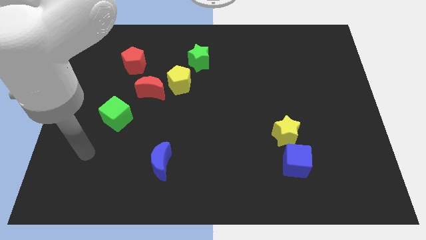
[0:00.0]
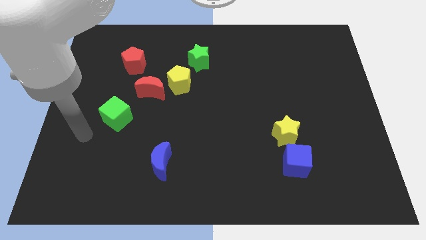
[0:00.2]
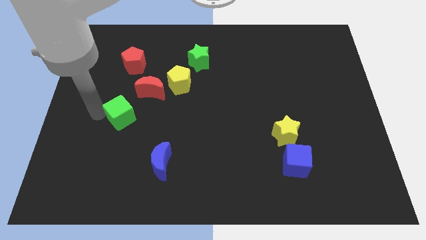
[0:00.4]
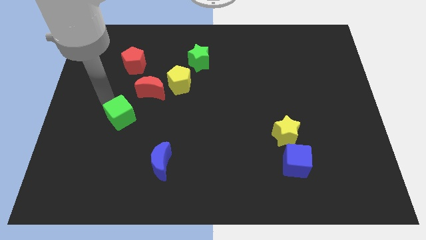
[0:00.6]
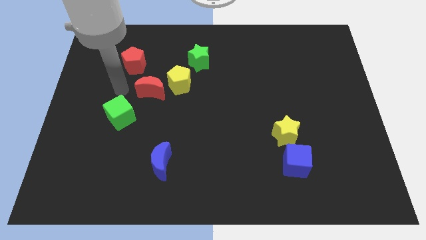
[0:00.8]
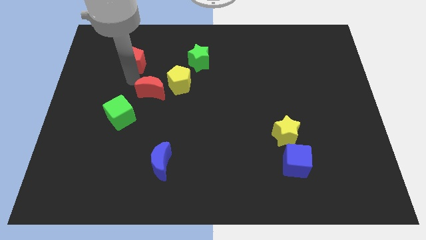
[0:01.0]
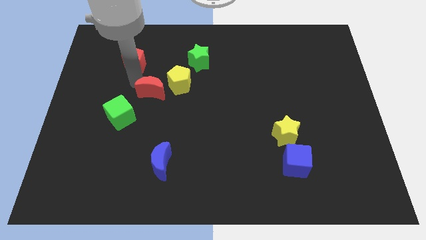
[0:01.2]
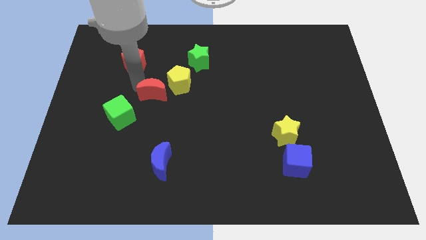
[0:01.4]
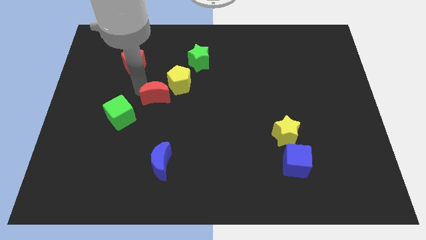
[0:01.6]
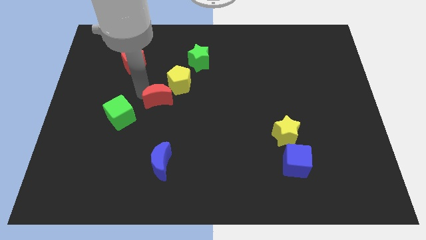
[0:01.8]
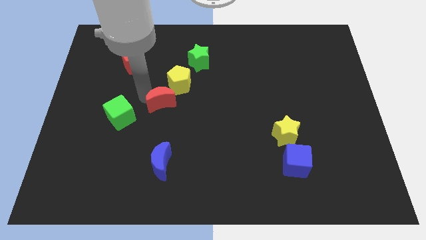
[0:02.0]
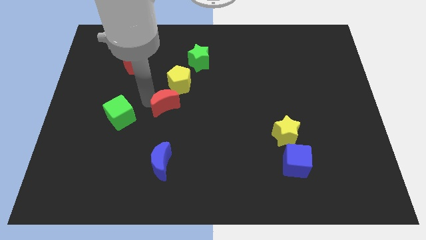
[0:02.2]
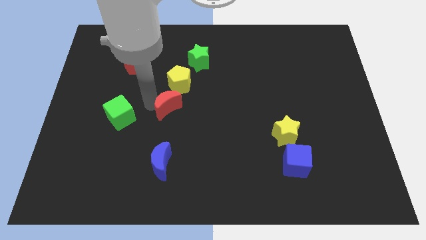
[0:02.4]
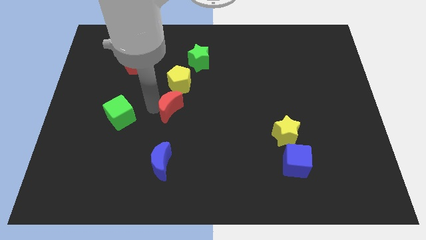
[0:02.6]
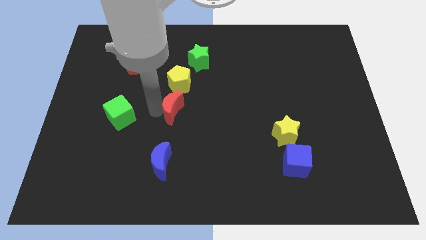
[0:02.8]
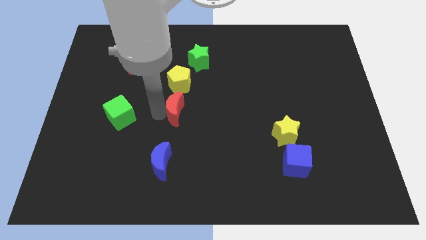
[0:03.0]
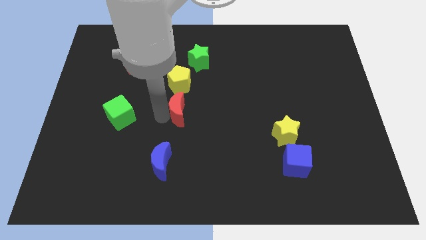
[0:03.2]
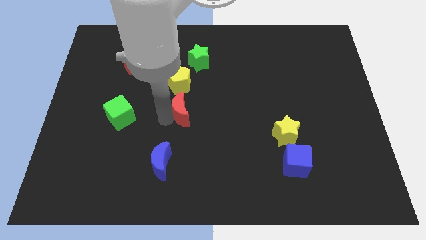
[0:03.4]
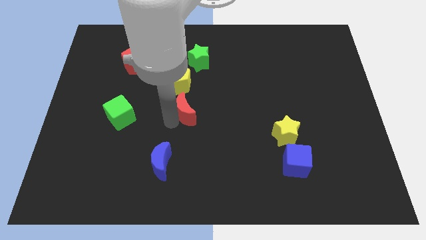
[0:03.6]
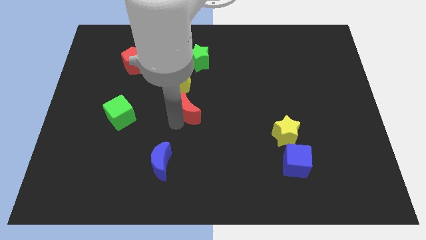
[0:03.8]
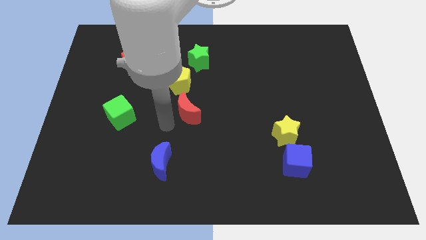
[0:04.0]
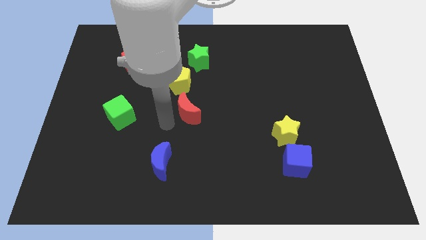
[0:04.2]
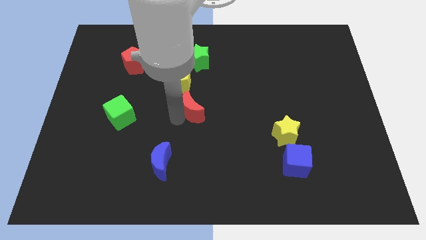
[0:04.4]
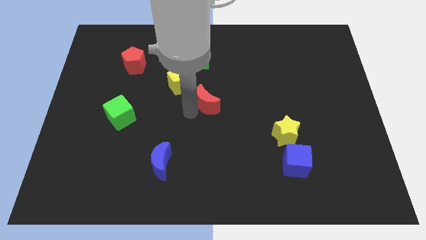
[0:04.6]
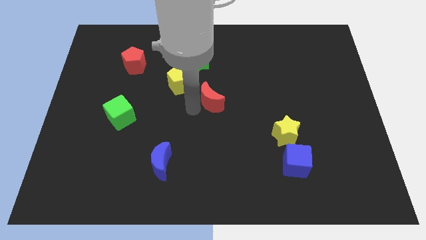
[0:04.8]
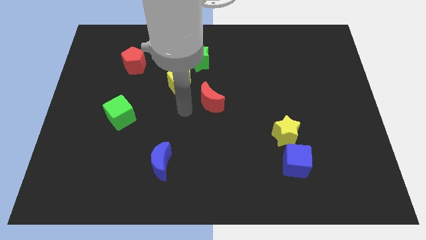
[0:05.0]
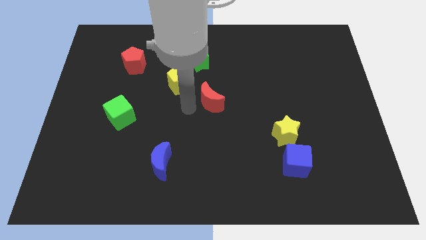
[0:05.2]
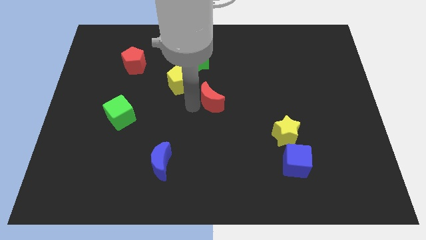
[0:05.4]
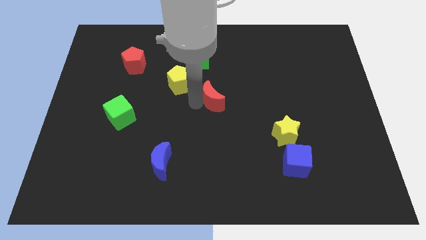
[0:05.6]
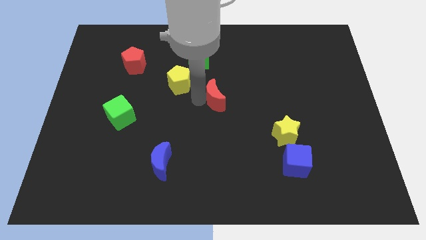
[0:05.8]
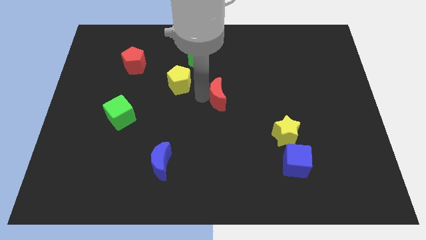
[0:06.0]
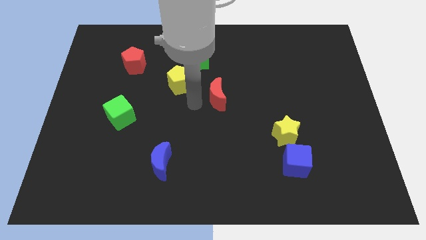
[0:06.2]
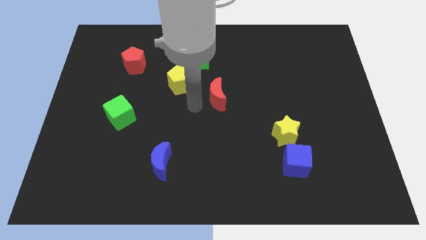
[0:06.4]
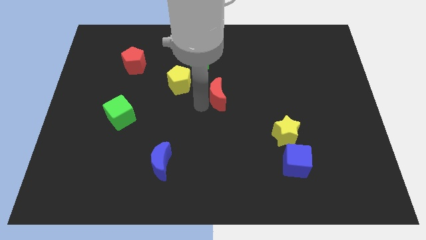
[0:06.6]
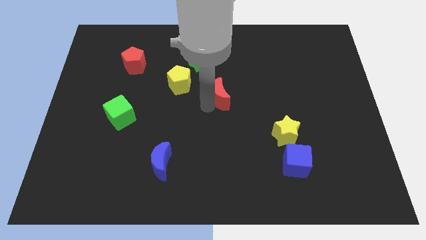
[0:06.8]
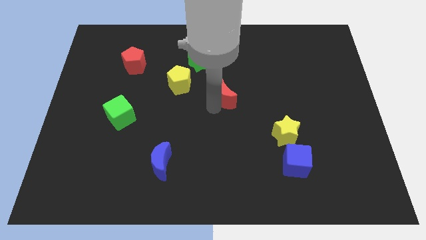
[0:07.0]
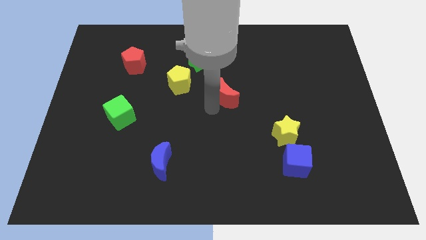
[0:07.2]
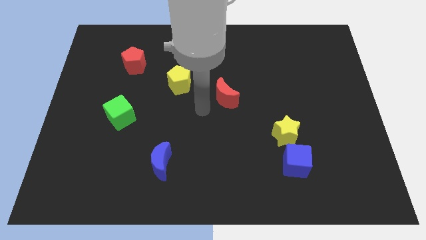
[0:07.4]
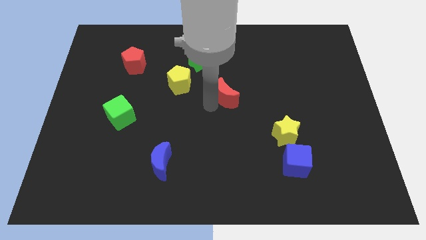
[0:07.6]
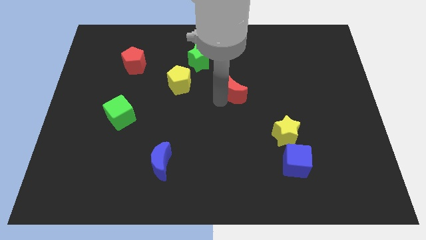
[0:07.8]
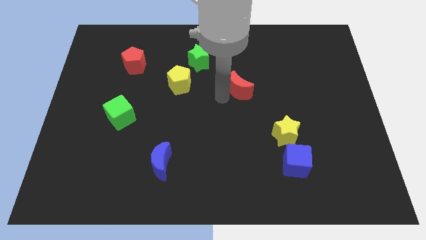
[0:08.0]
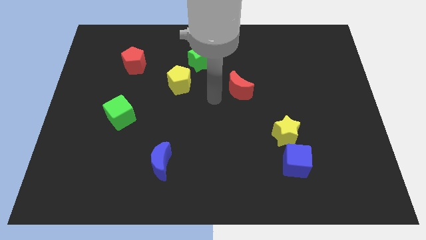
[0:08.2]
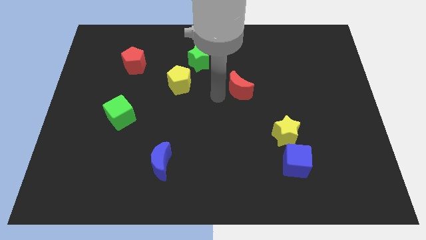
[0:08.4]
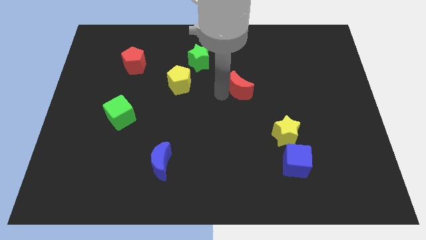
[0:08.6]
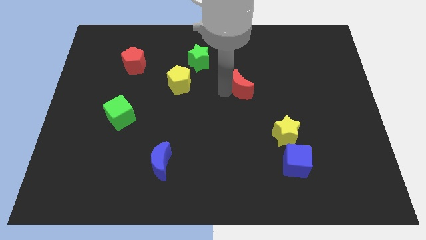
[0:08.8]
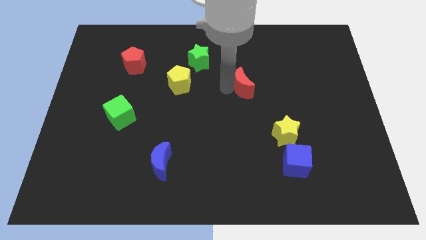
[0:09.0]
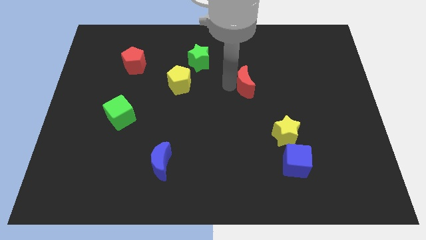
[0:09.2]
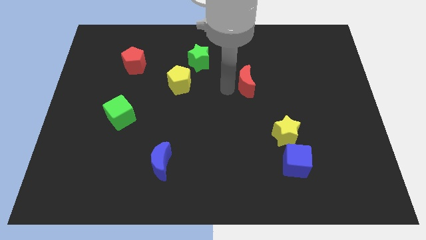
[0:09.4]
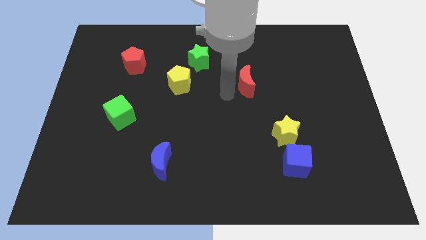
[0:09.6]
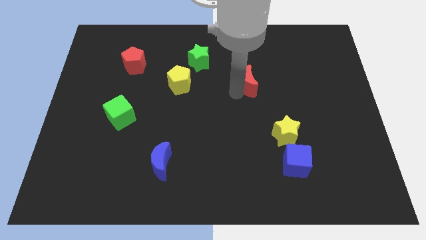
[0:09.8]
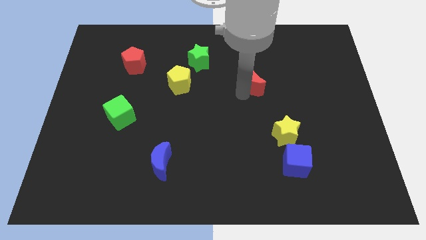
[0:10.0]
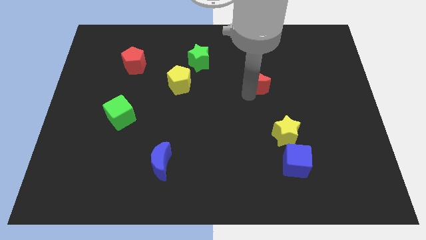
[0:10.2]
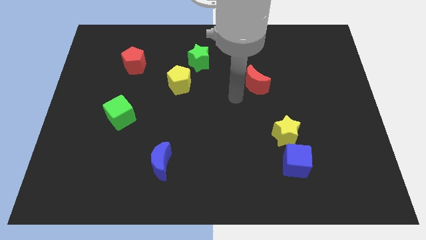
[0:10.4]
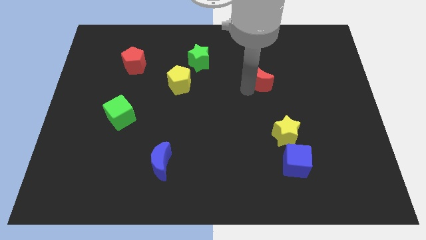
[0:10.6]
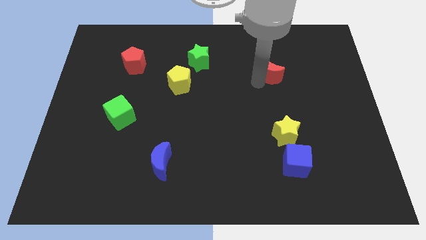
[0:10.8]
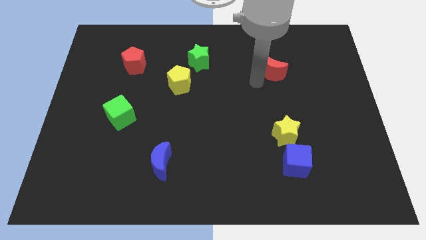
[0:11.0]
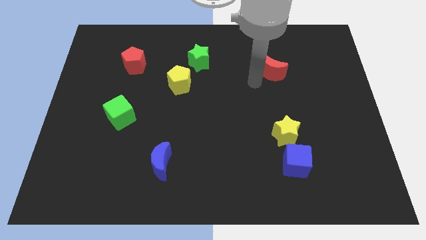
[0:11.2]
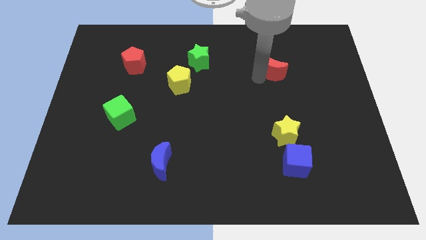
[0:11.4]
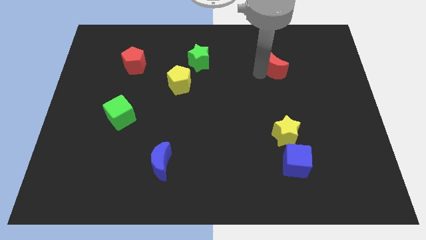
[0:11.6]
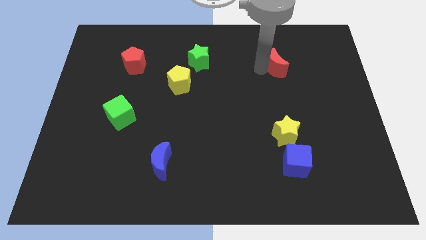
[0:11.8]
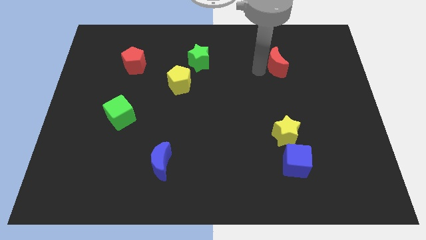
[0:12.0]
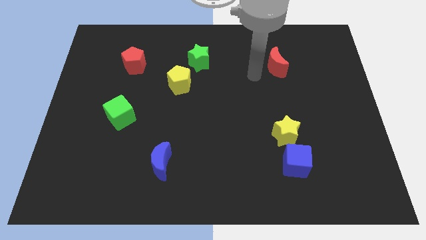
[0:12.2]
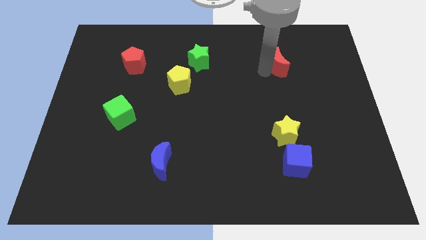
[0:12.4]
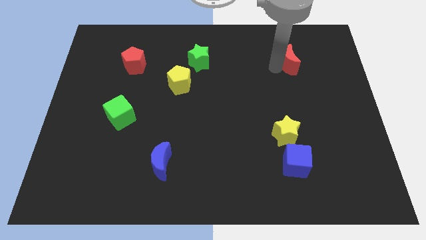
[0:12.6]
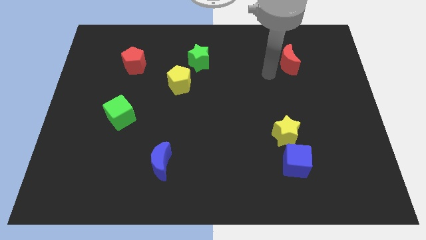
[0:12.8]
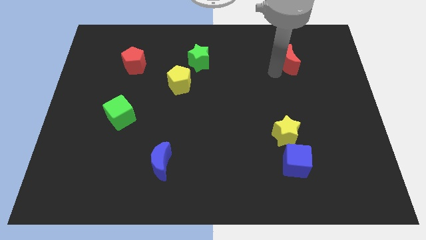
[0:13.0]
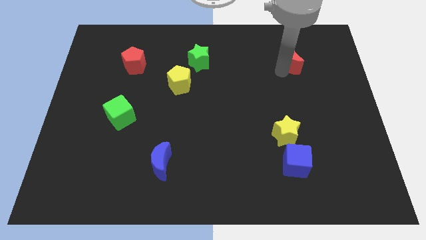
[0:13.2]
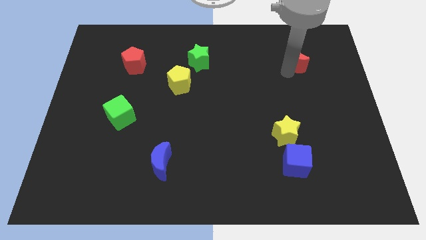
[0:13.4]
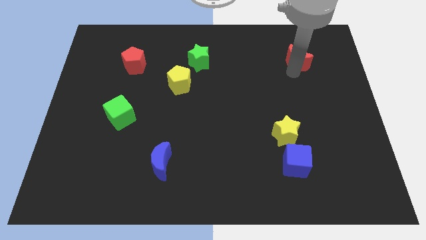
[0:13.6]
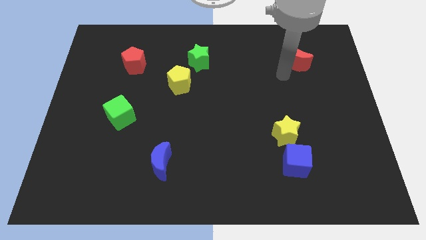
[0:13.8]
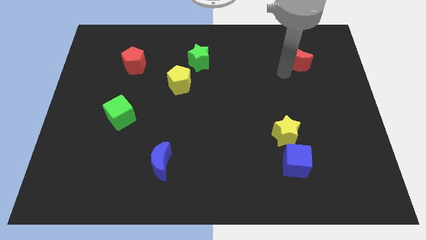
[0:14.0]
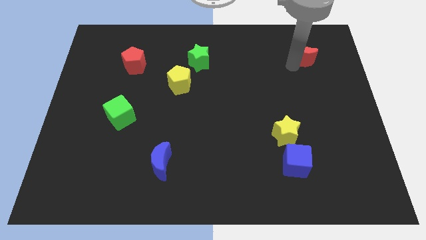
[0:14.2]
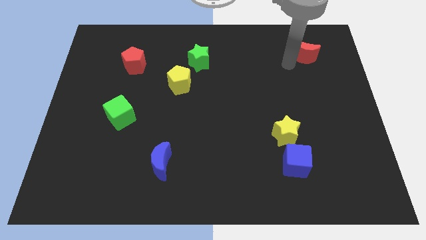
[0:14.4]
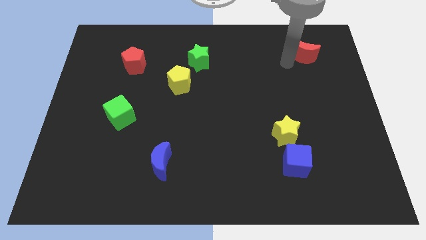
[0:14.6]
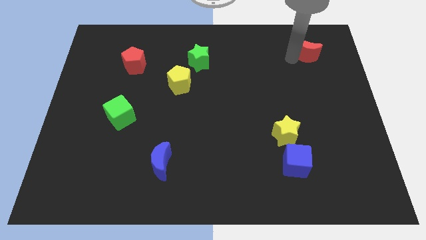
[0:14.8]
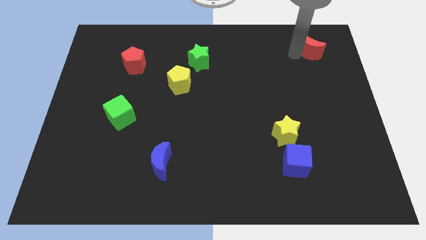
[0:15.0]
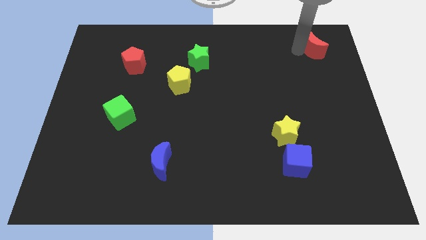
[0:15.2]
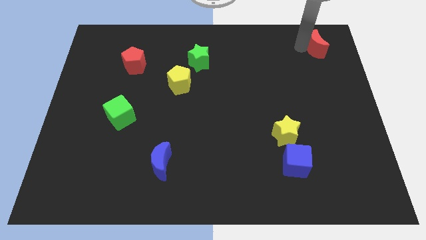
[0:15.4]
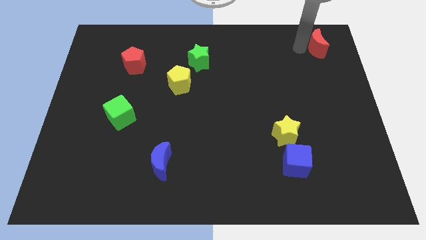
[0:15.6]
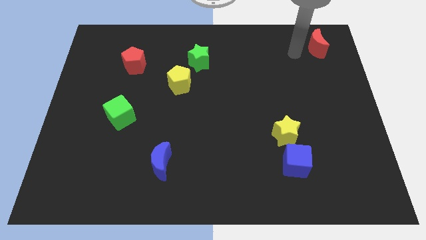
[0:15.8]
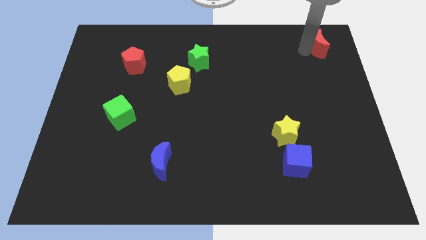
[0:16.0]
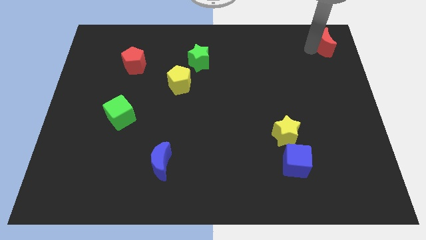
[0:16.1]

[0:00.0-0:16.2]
move the red moon to the top right of the board
